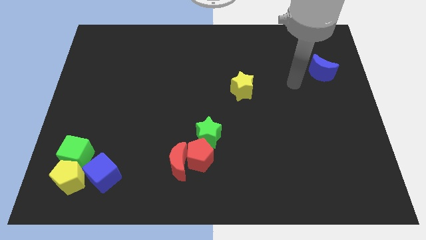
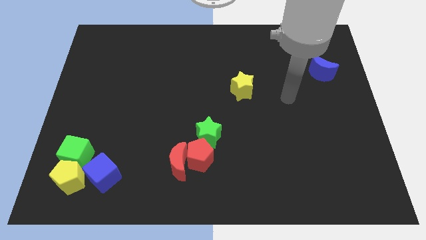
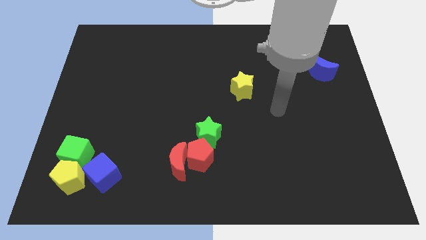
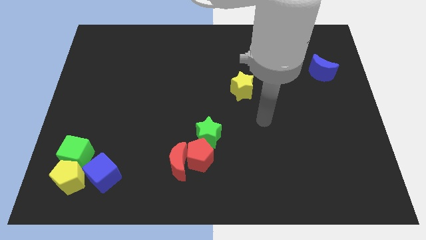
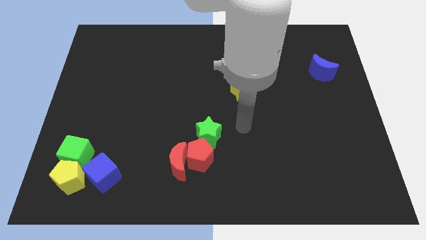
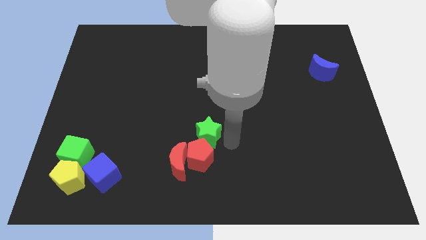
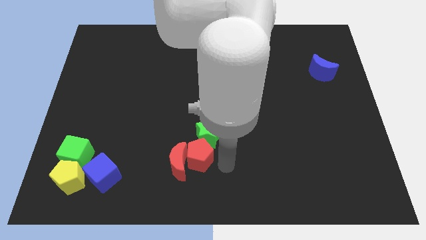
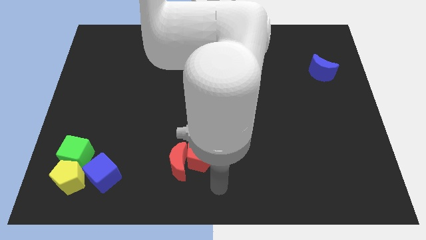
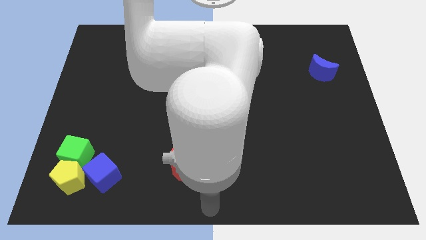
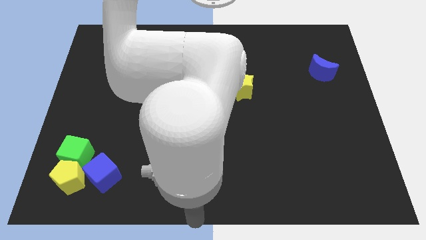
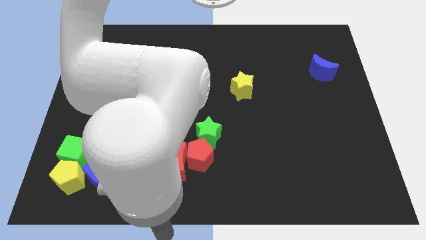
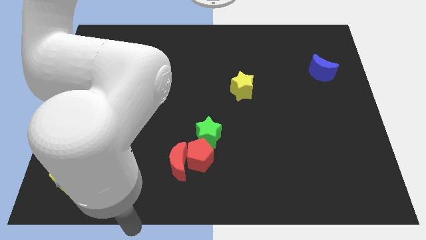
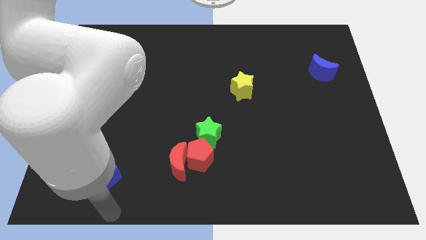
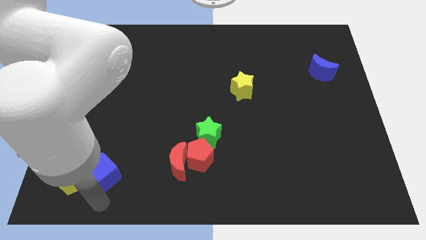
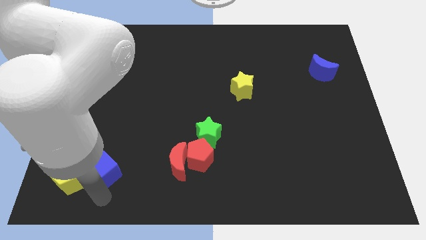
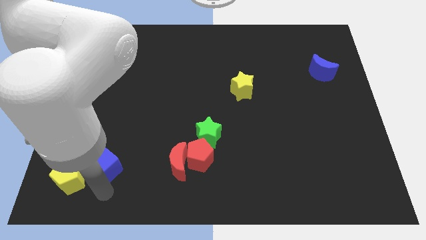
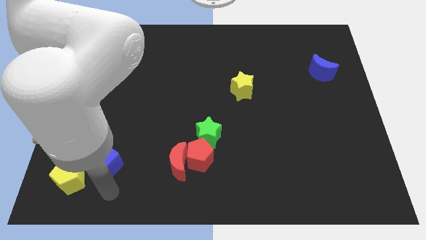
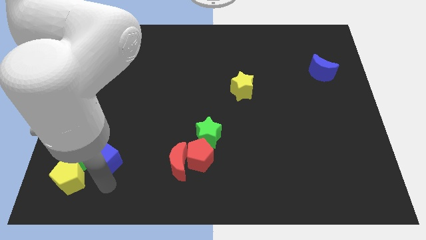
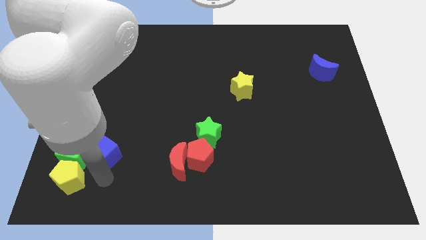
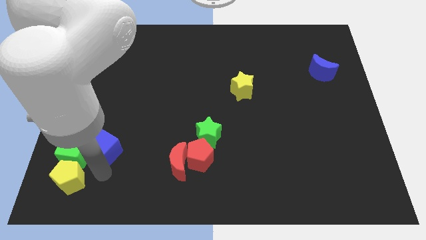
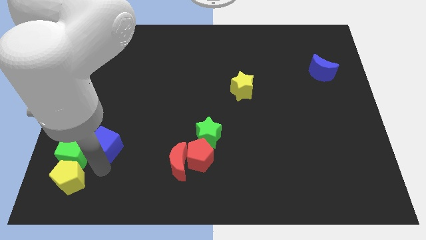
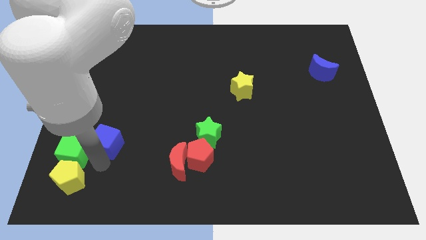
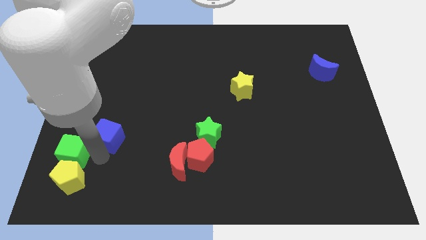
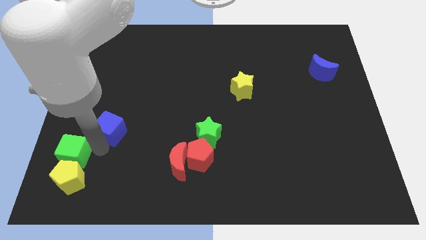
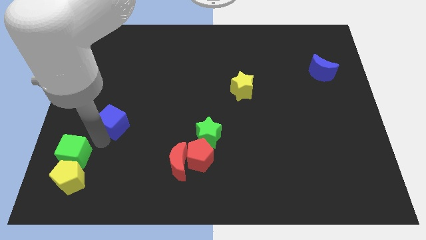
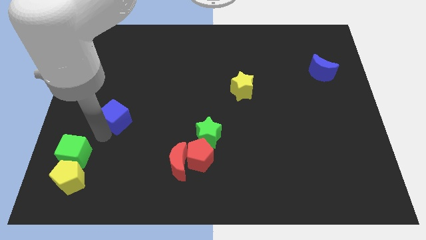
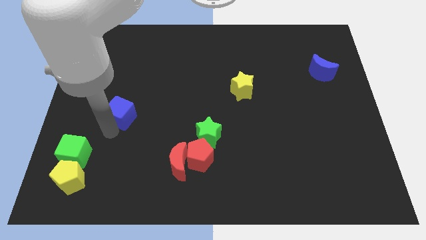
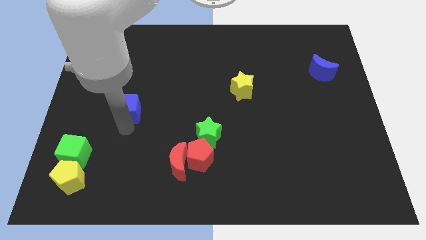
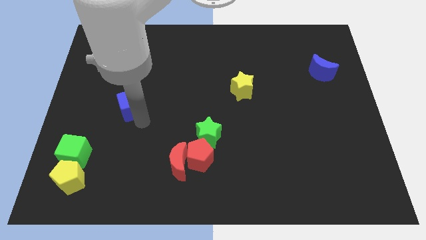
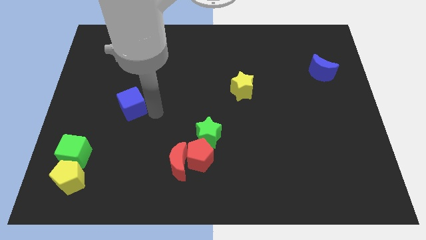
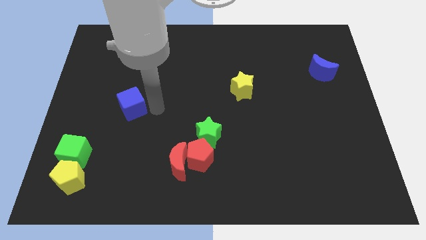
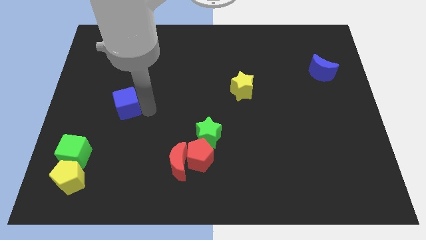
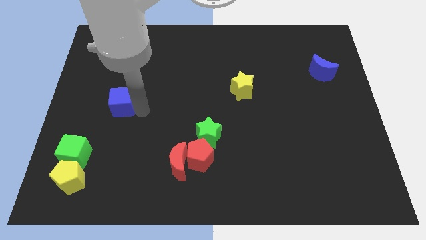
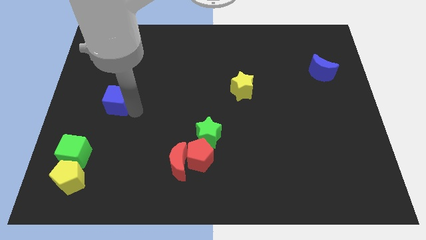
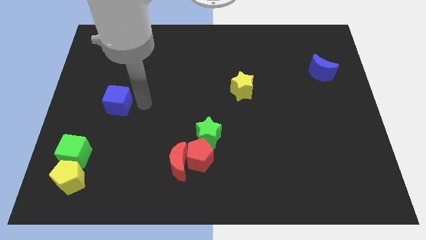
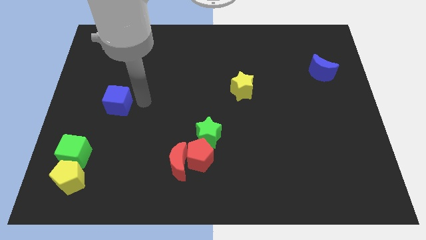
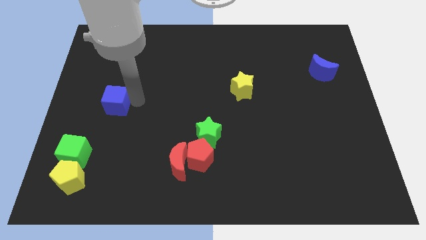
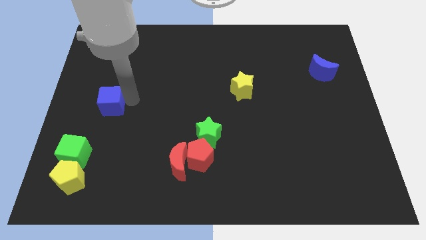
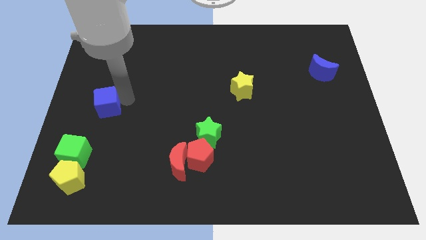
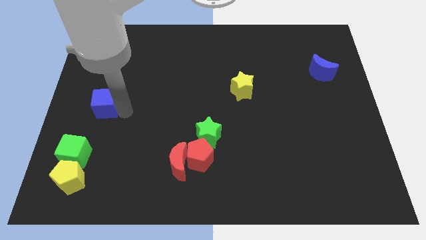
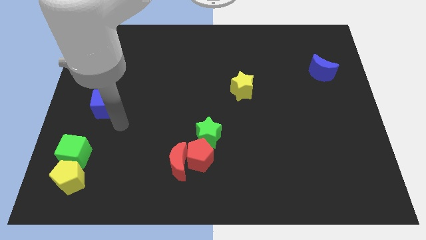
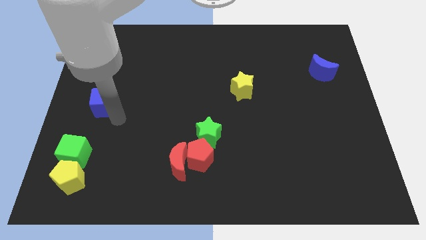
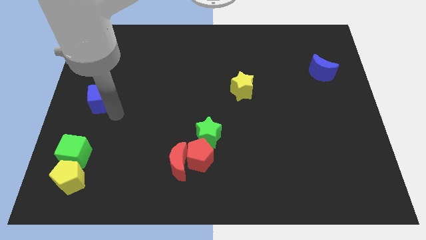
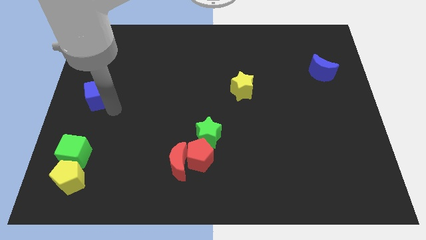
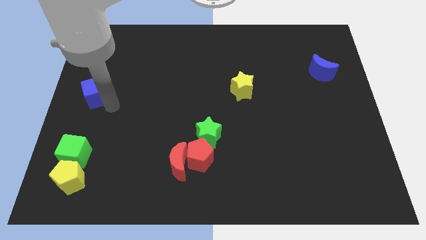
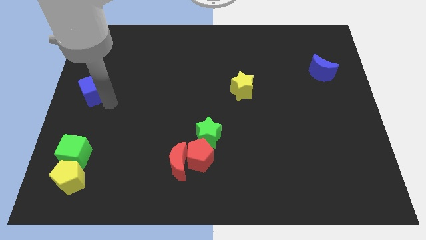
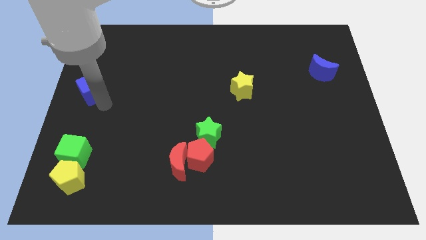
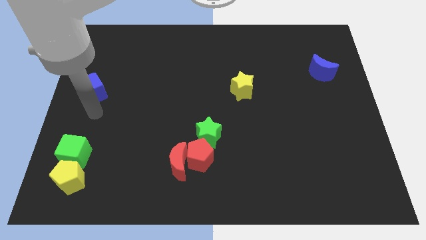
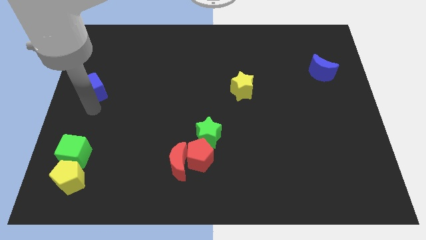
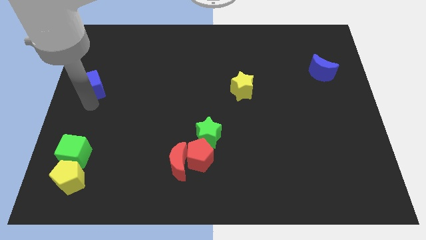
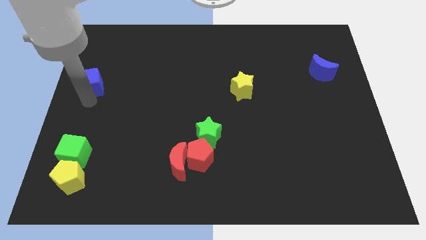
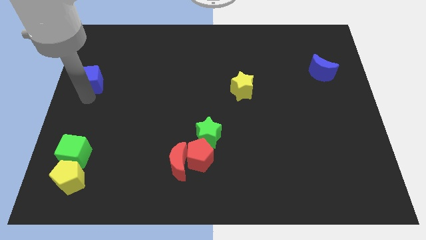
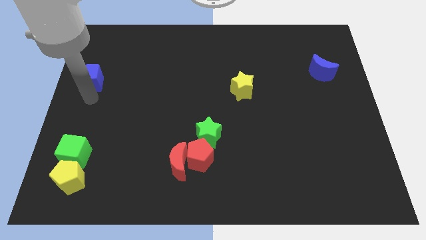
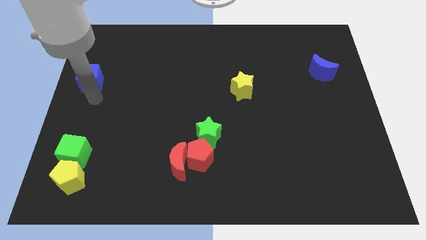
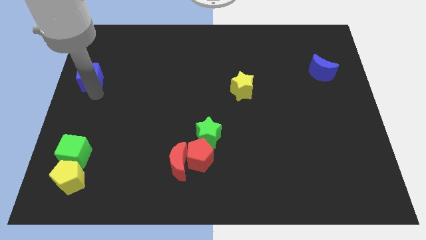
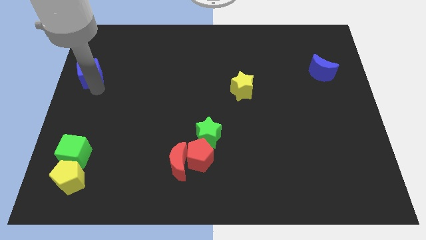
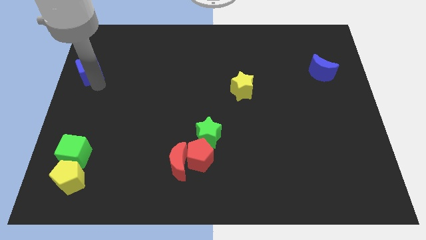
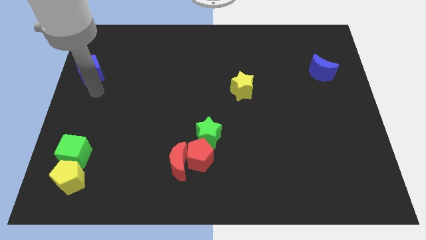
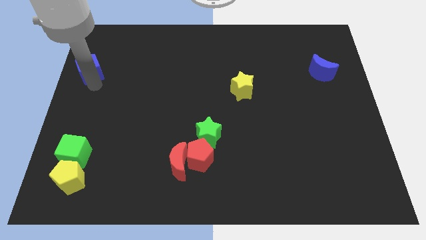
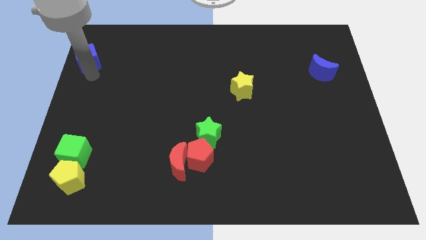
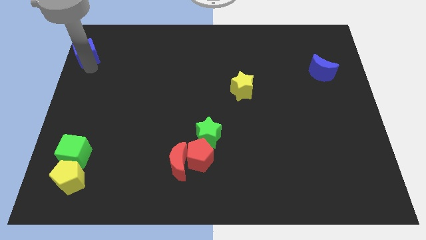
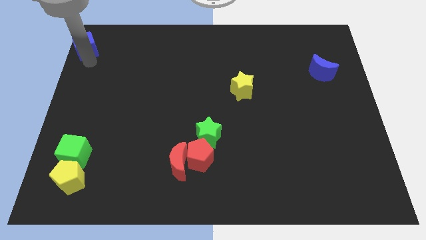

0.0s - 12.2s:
slide the blue cube to the top left of the board

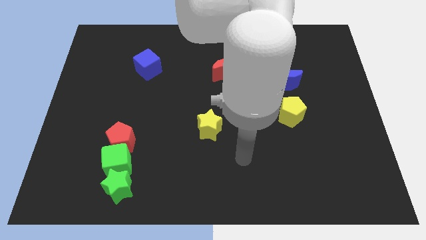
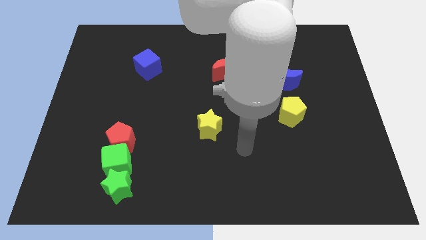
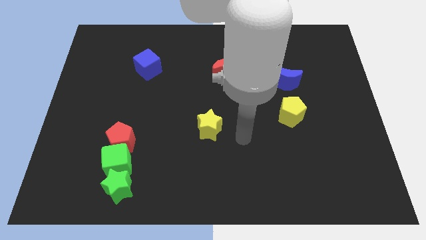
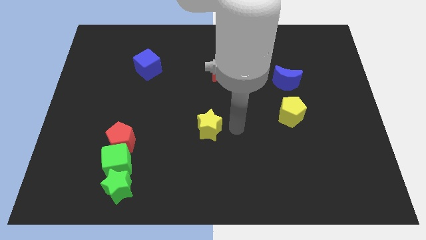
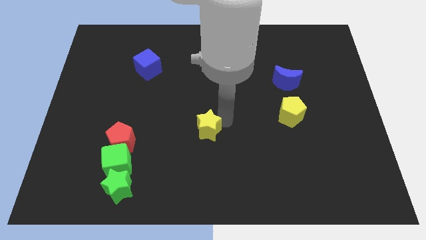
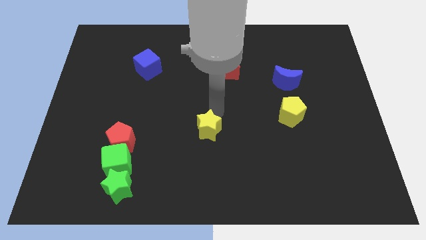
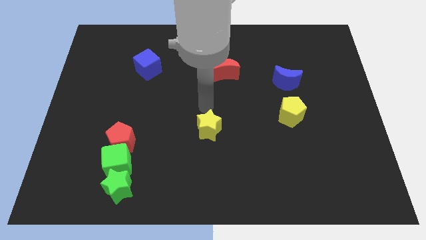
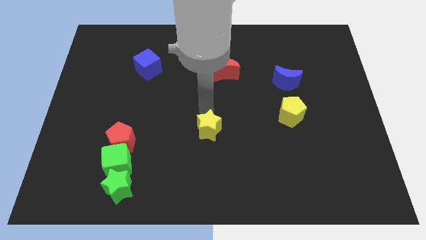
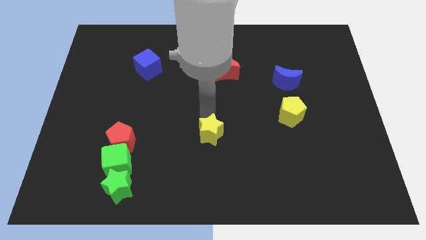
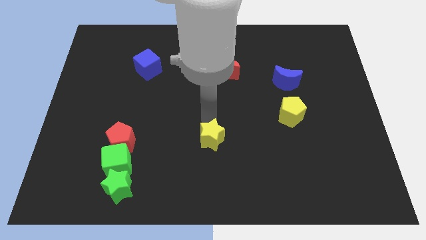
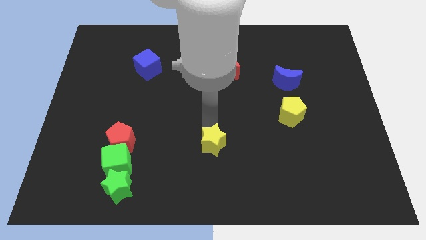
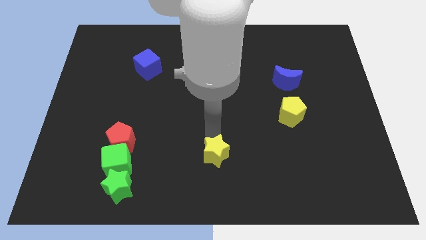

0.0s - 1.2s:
slide the yellow star to the bottom side
